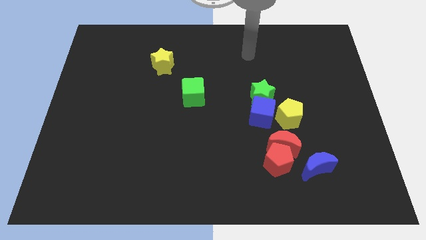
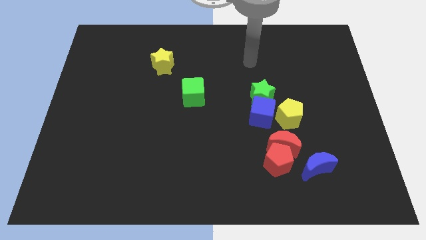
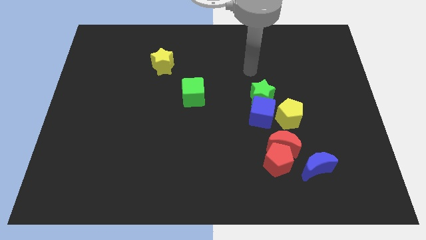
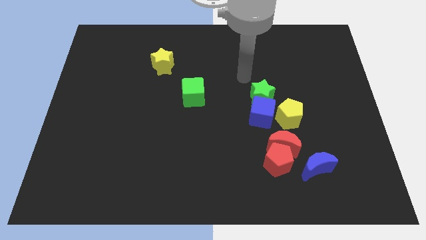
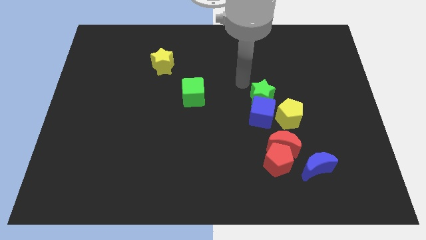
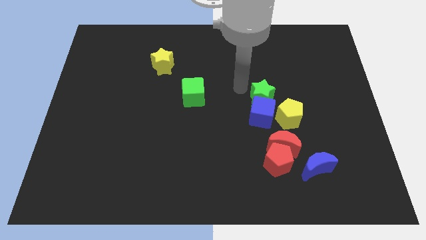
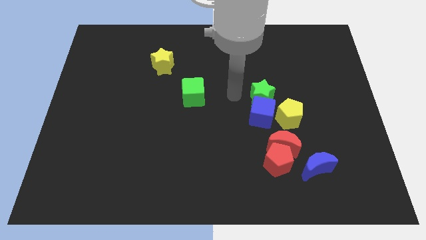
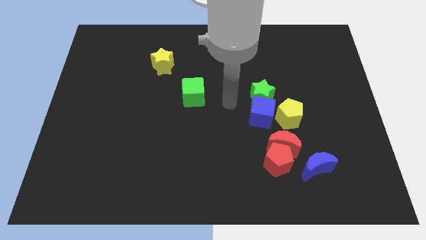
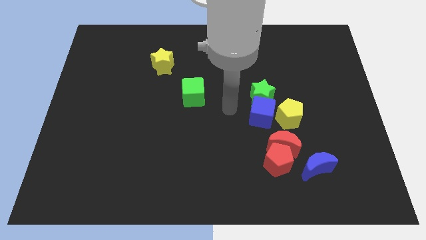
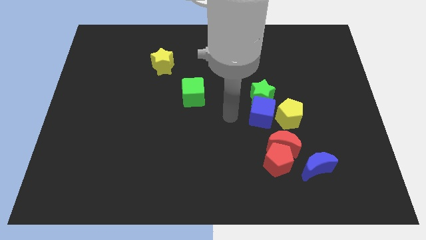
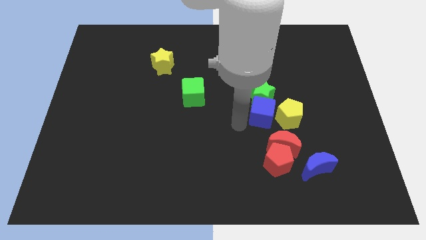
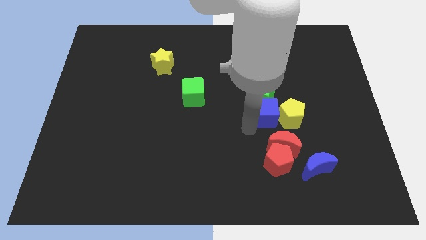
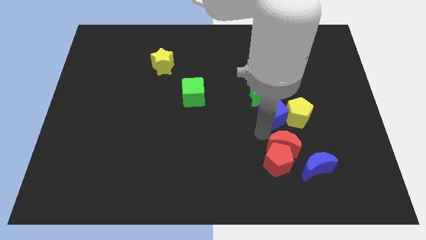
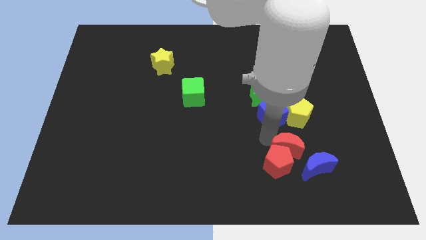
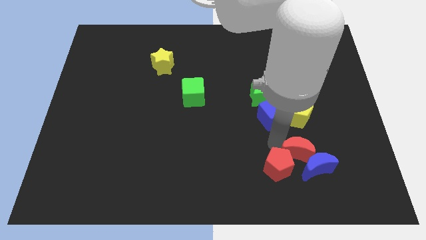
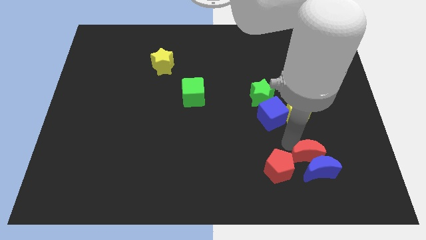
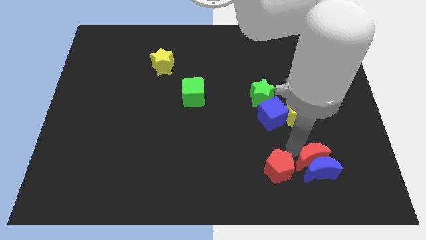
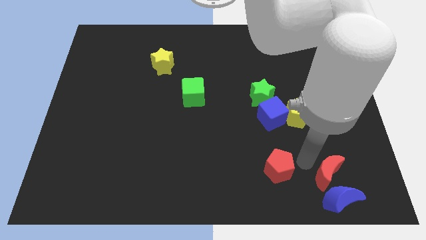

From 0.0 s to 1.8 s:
move the red pentagon away from the red moon and blue moon

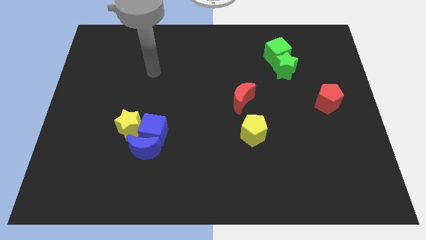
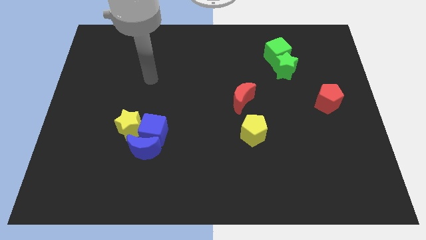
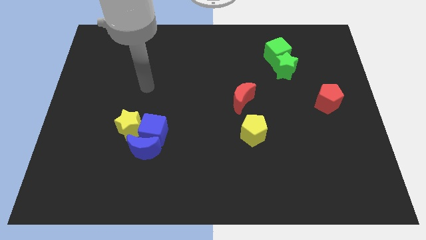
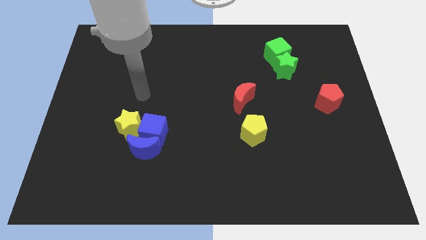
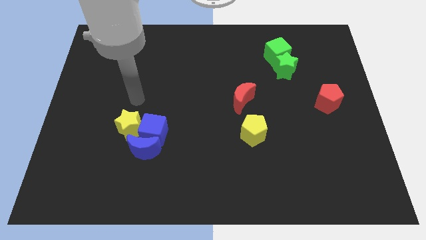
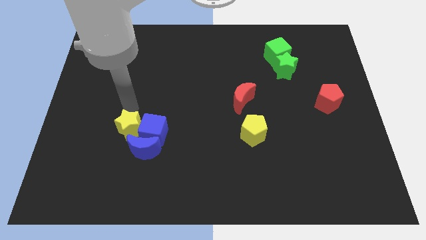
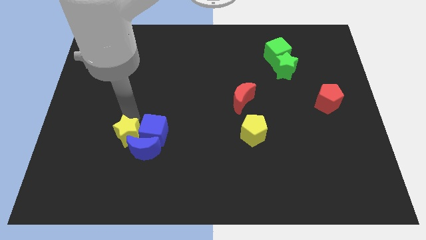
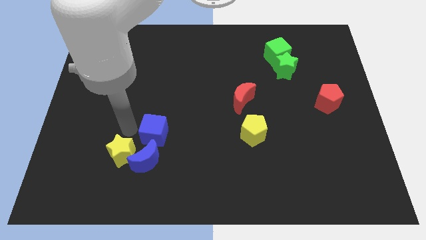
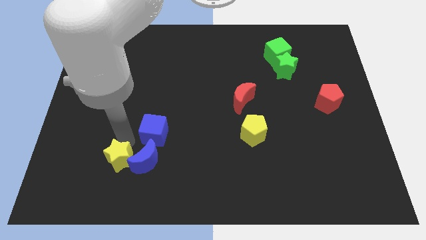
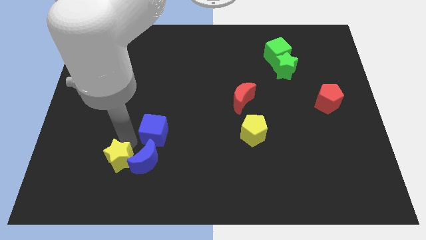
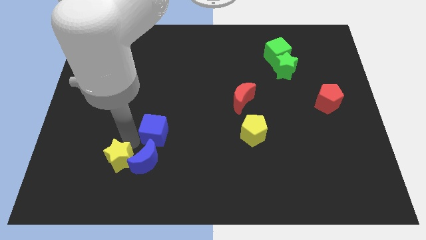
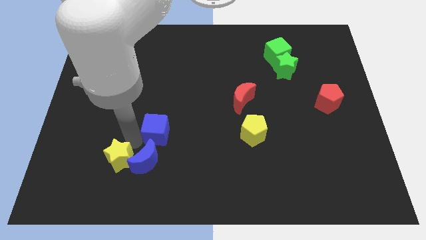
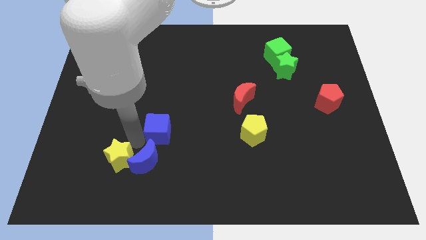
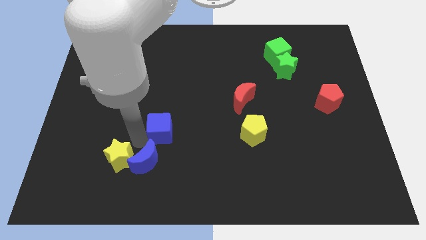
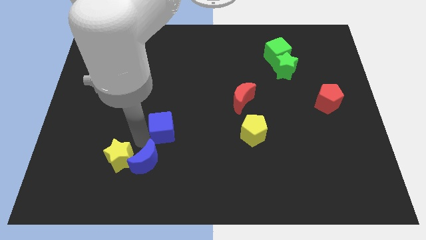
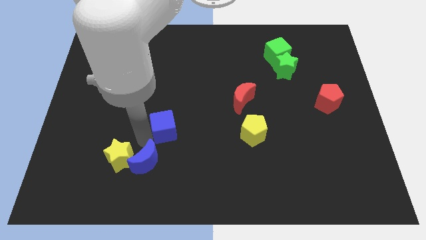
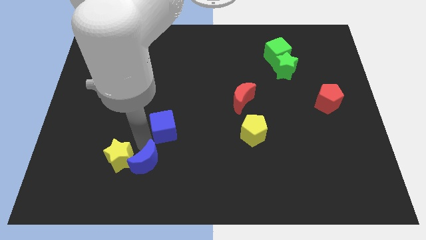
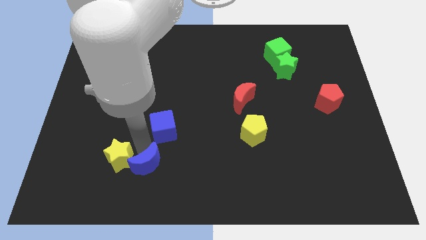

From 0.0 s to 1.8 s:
move the blue cube away from the blue moon and yellow star

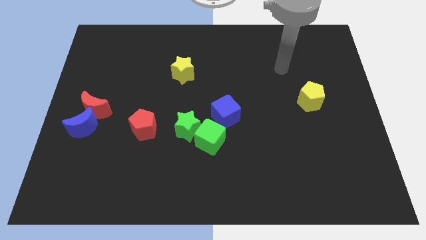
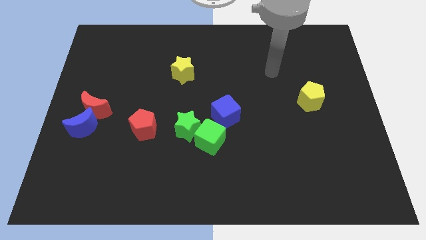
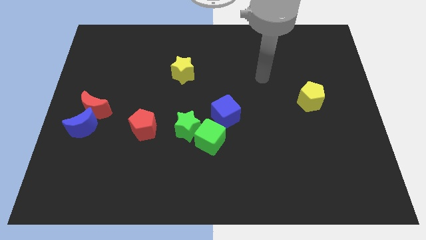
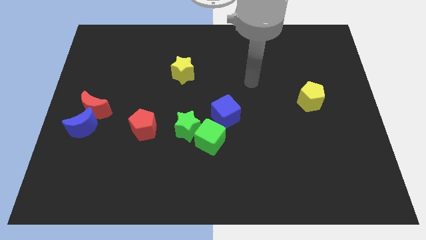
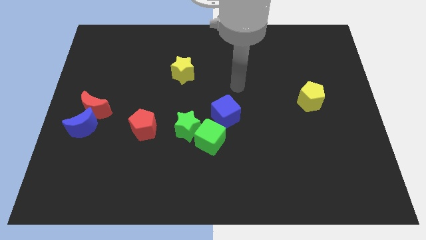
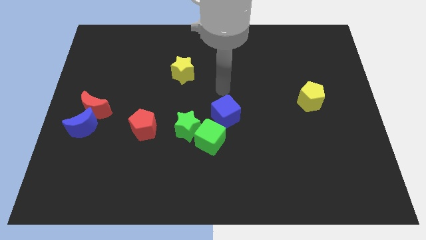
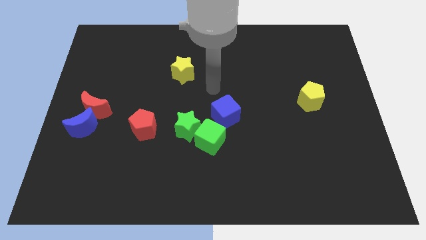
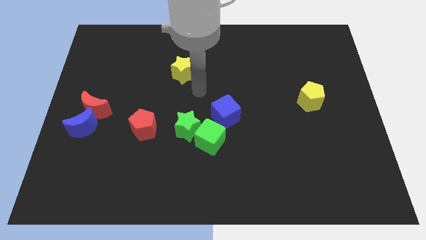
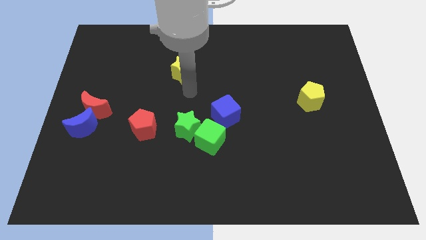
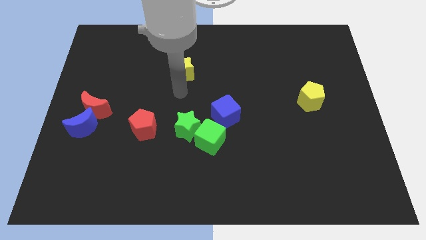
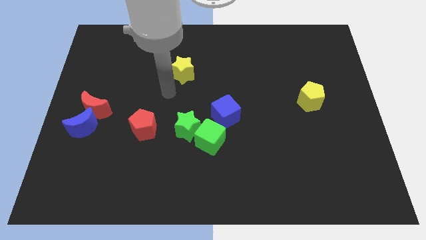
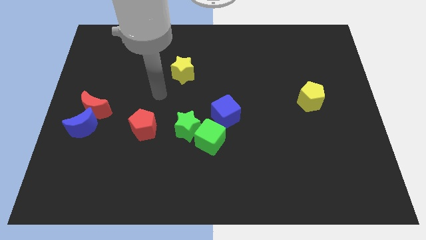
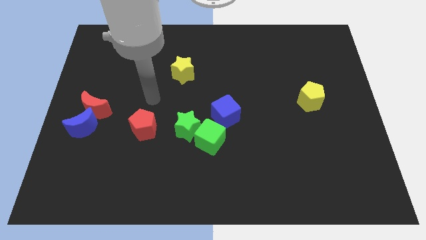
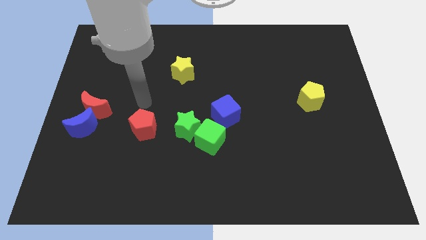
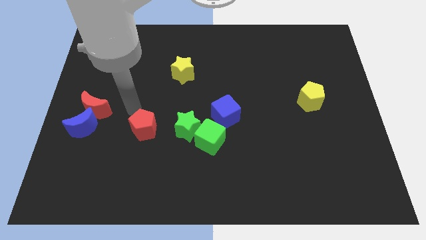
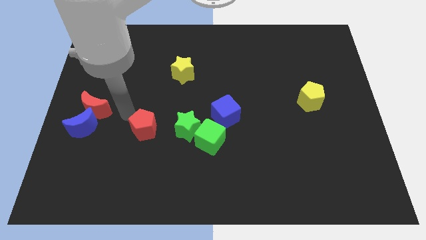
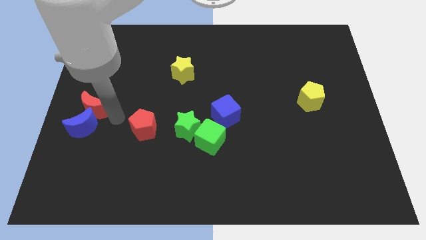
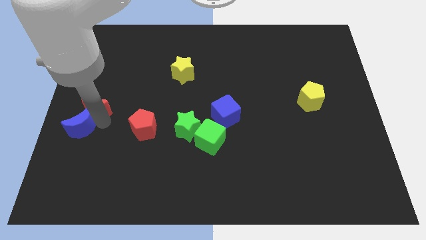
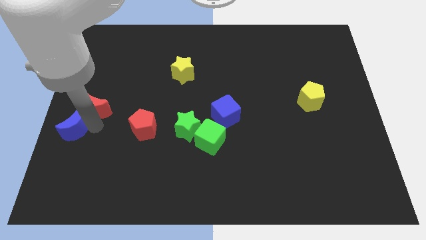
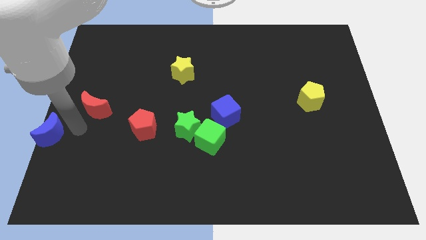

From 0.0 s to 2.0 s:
move the red moon away from the blue moon

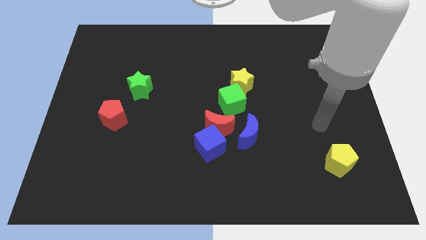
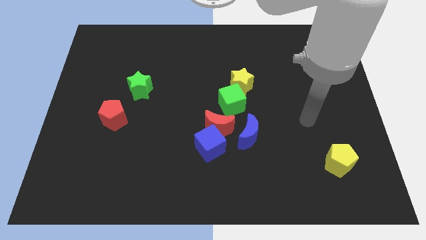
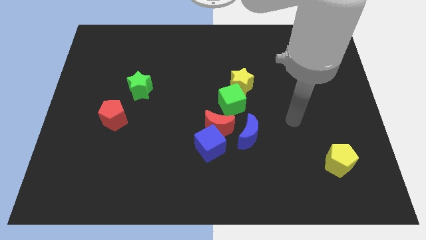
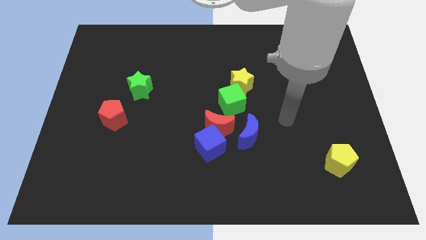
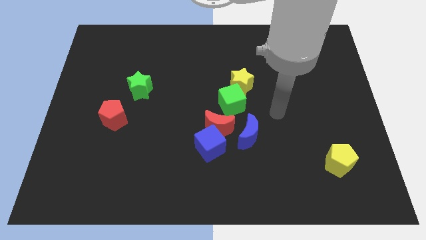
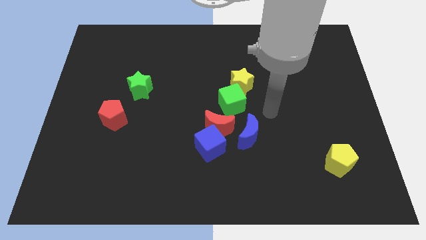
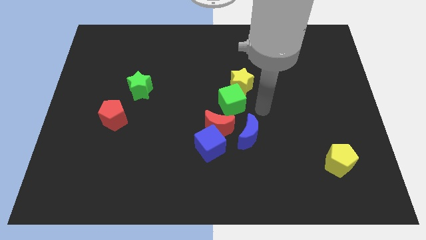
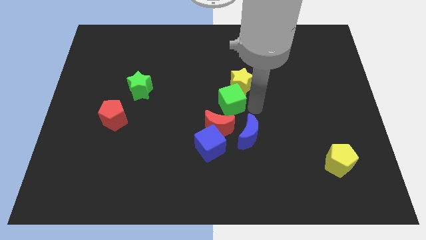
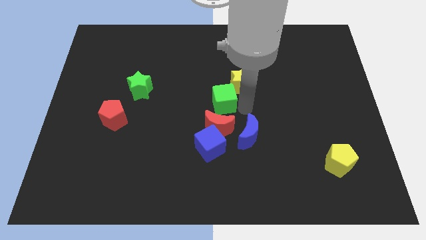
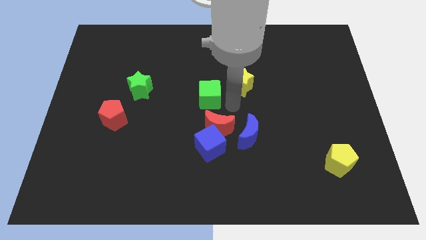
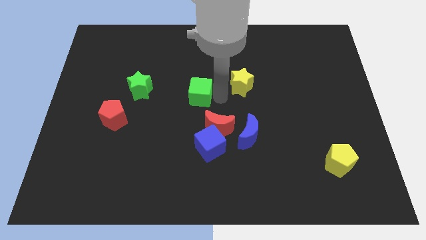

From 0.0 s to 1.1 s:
pull the yellow star apart from the green cube

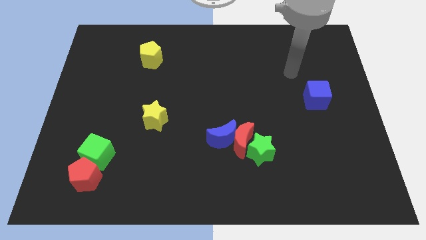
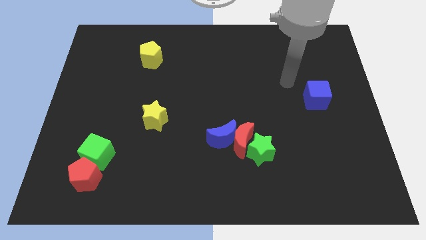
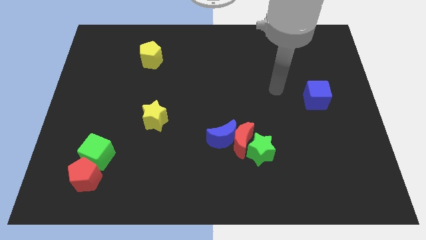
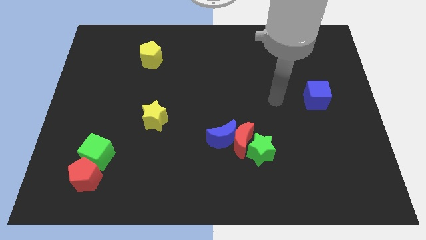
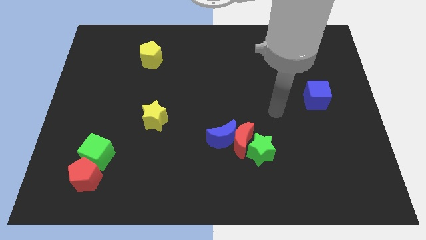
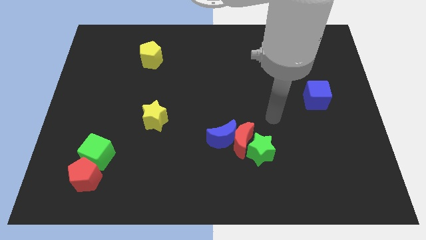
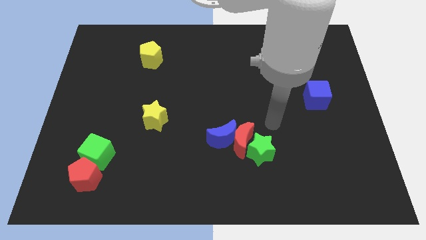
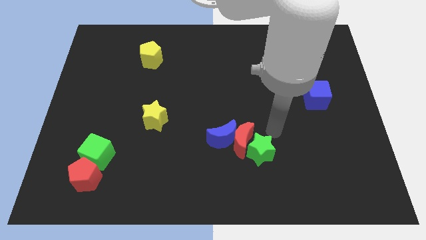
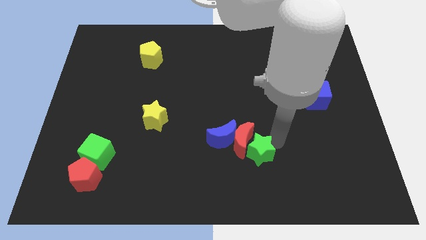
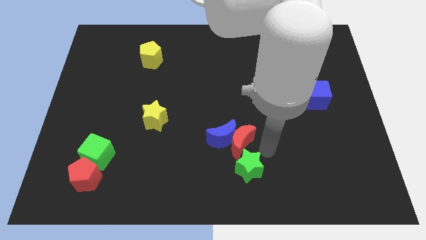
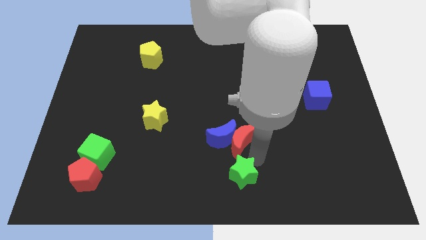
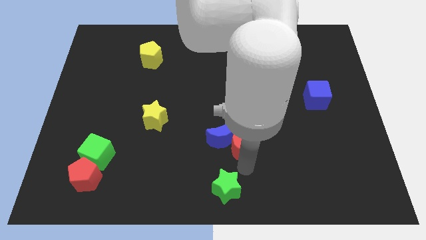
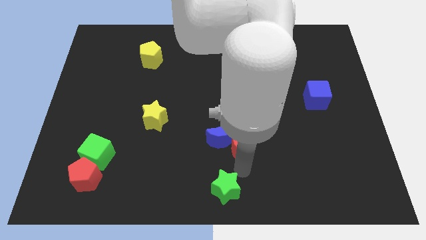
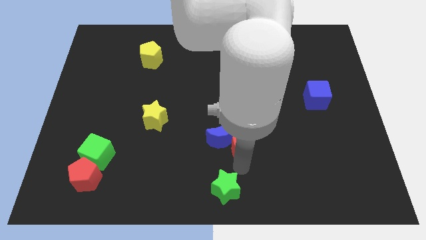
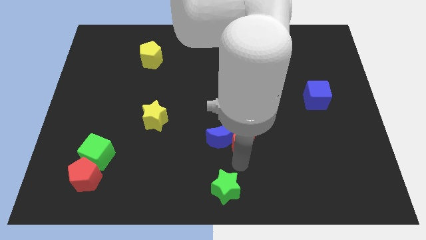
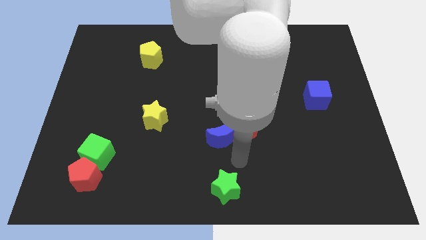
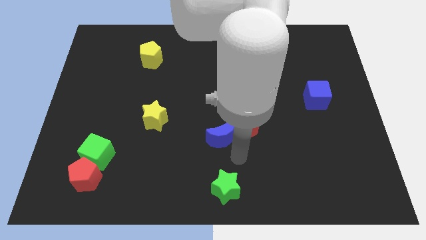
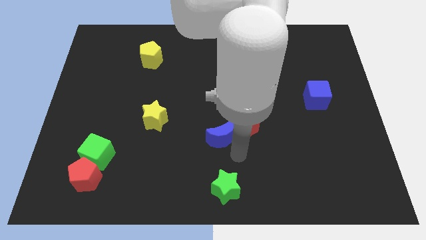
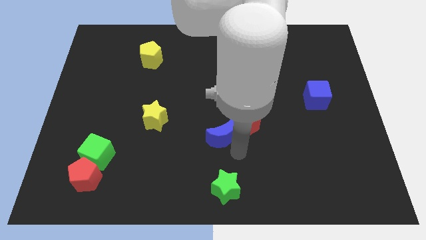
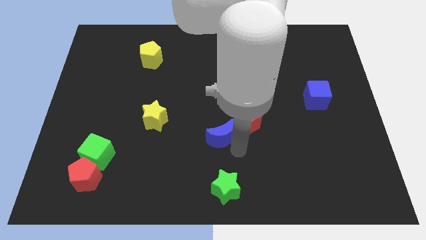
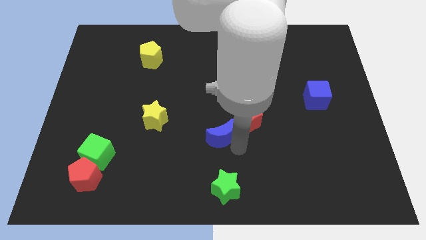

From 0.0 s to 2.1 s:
separate the red moon from the blue moon and green star

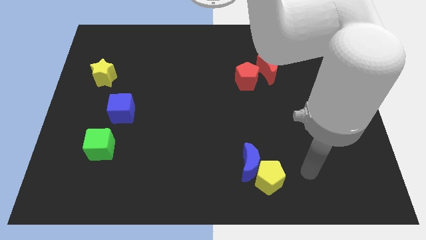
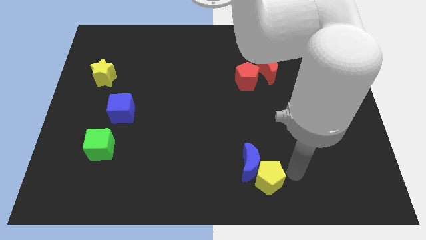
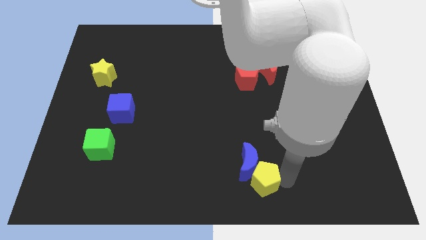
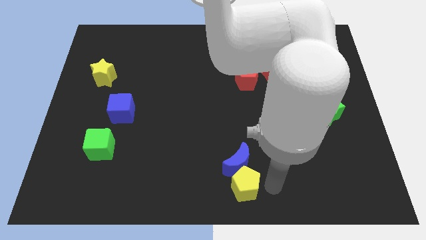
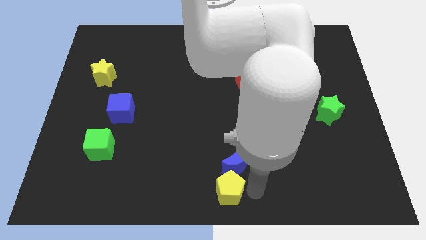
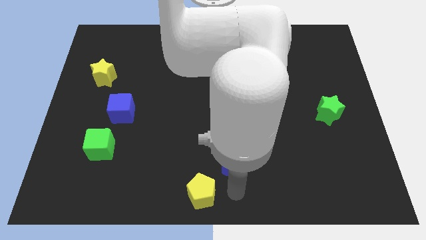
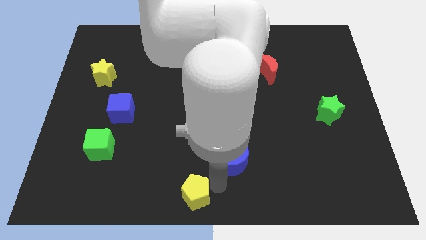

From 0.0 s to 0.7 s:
separate the blue moon from the yellow pentagon
